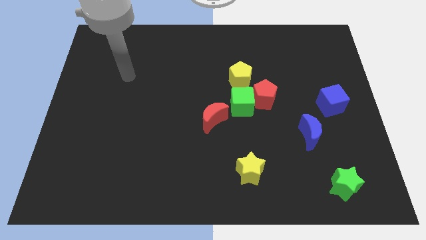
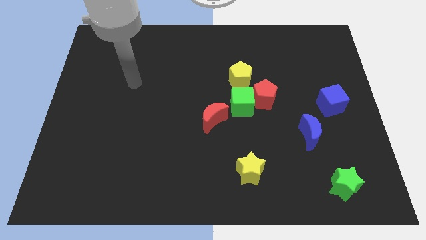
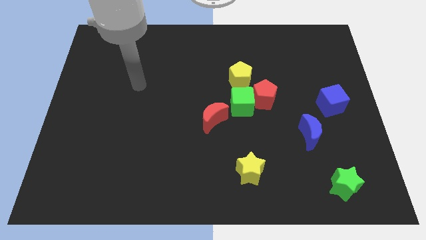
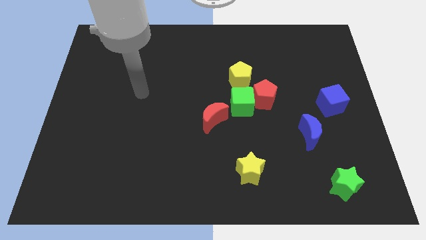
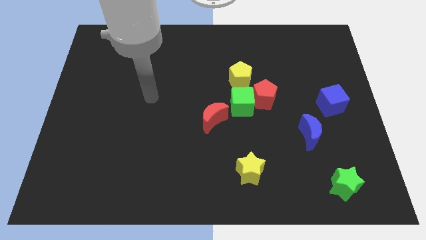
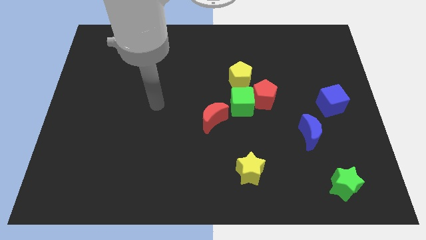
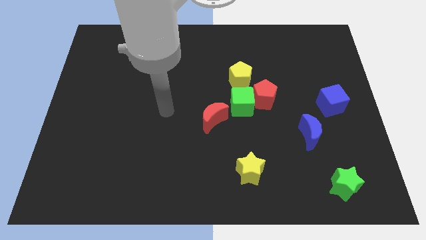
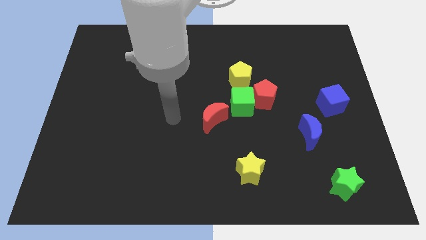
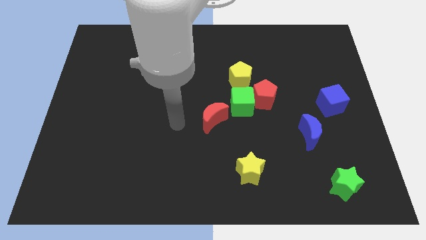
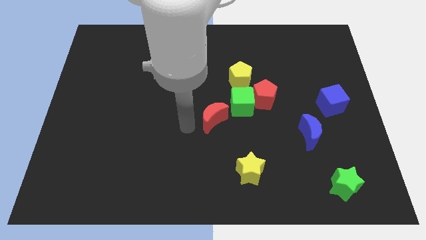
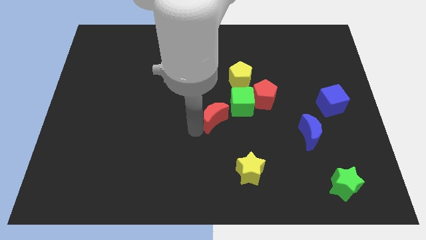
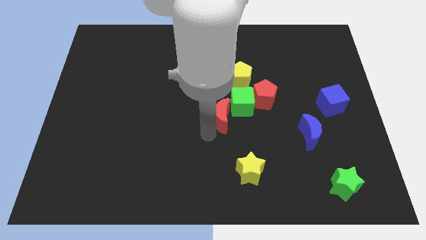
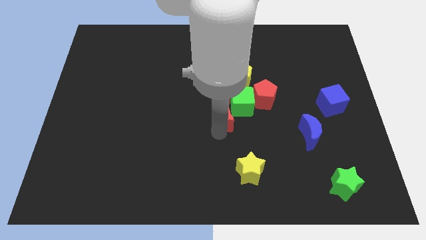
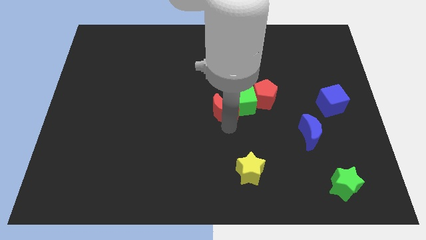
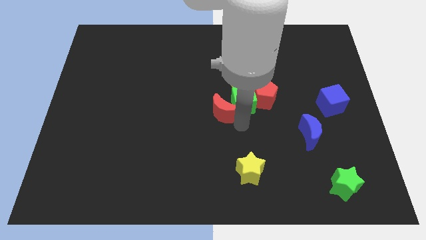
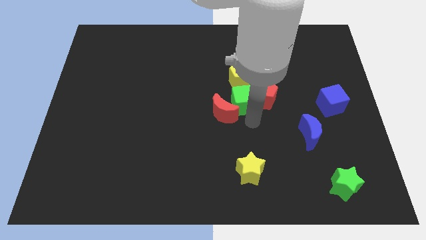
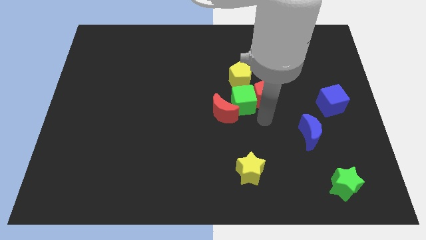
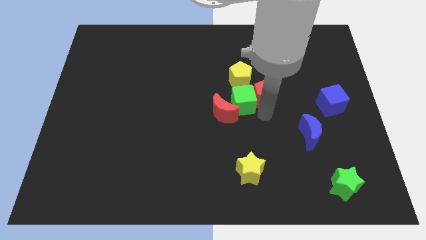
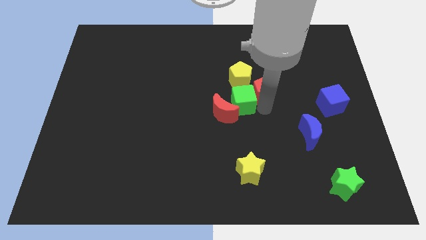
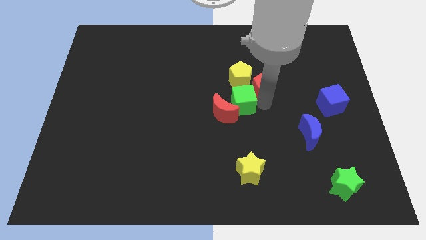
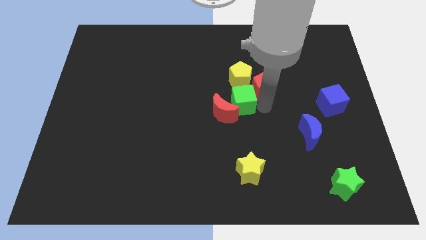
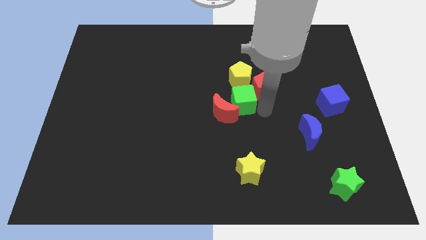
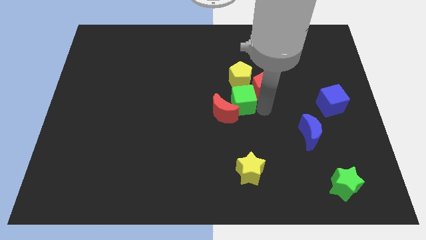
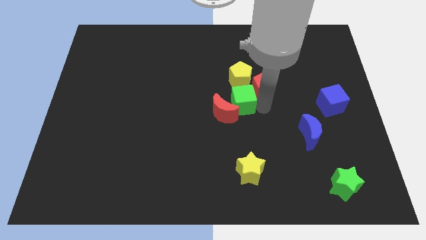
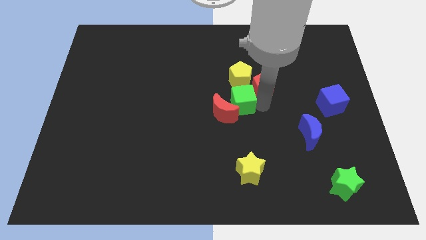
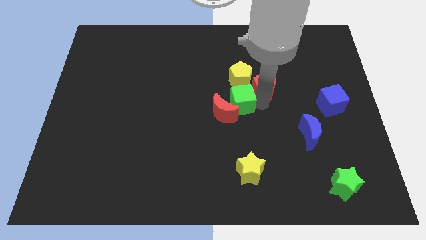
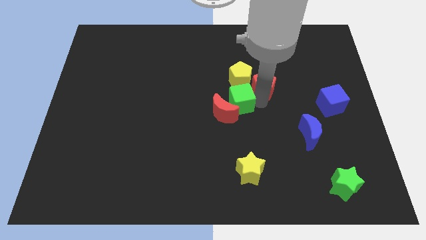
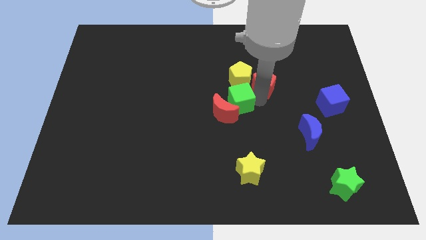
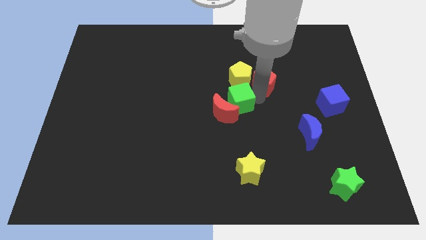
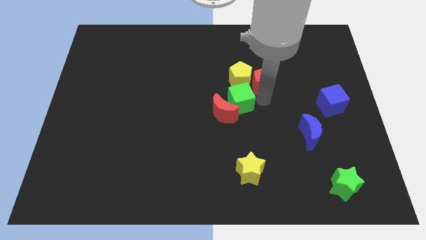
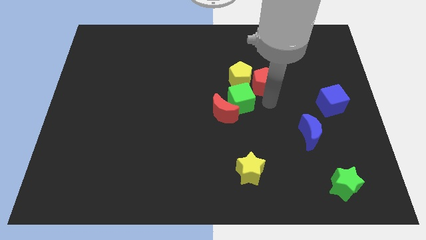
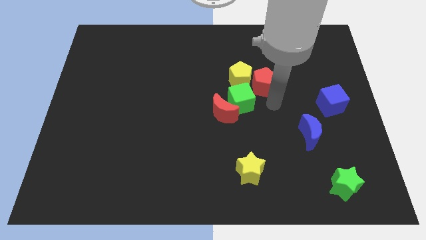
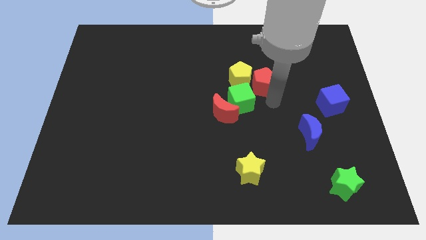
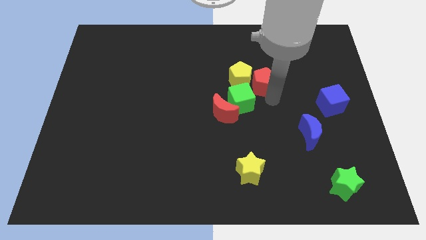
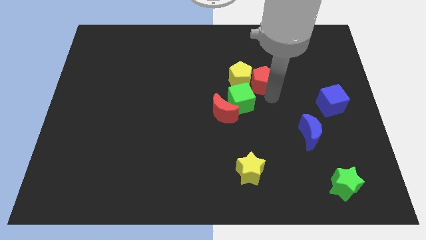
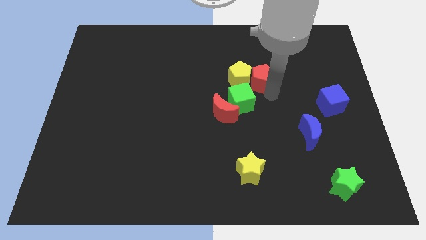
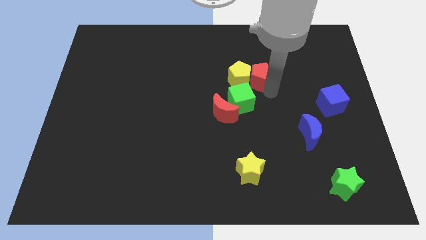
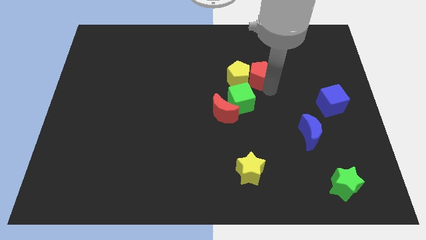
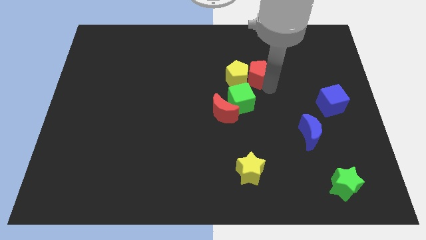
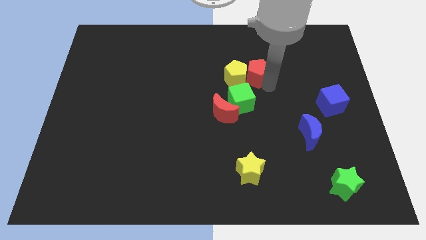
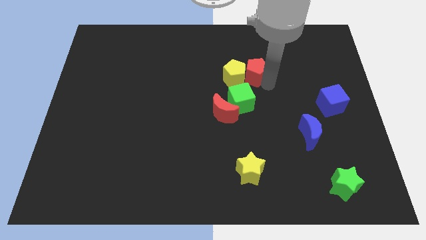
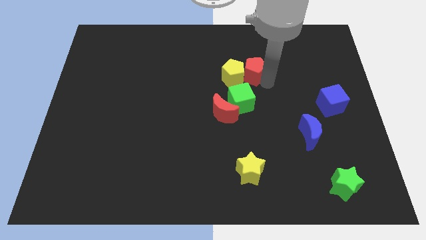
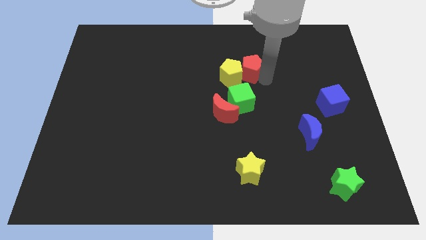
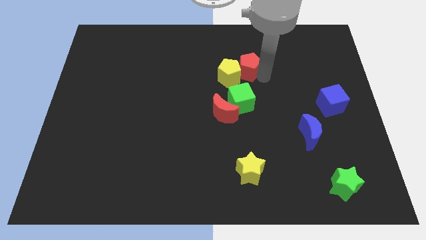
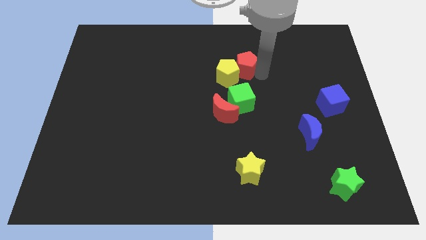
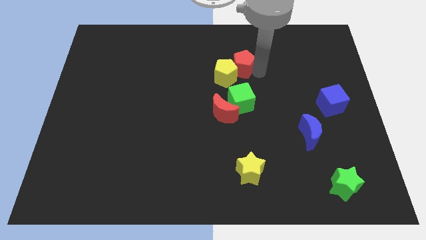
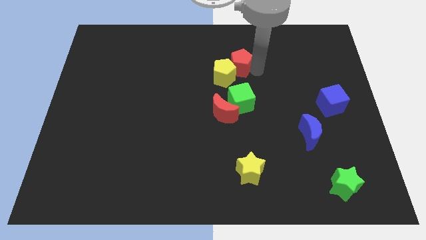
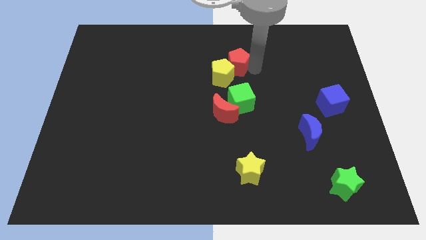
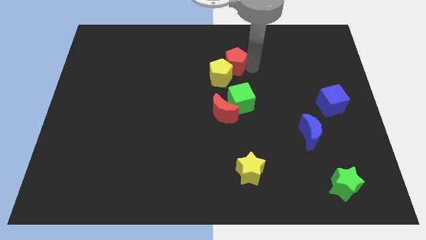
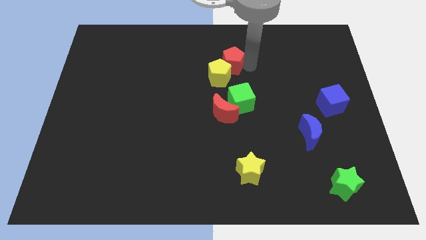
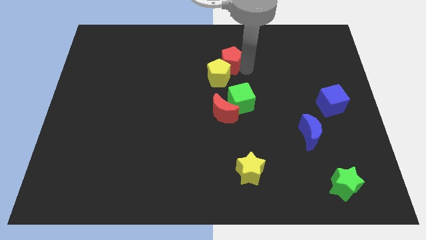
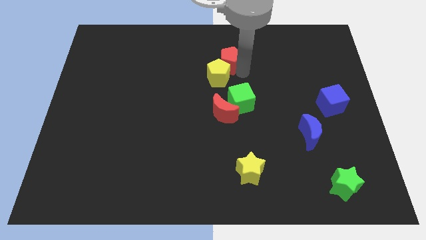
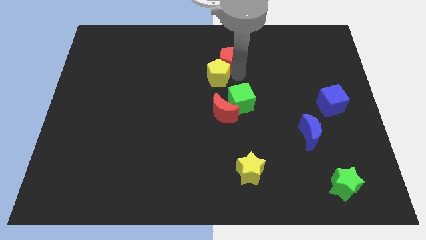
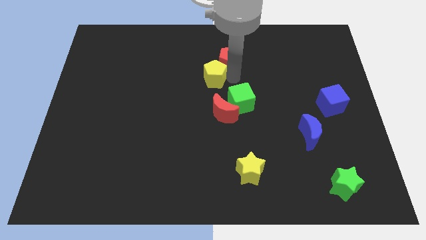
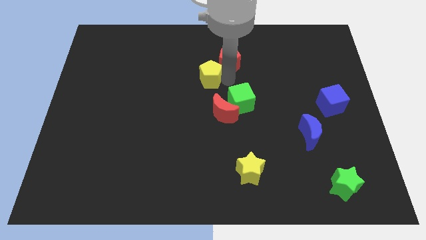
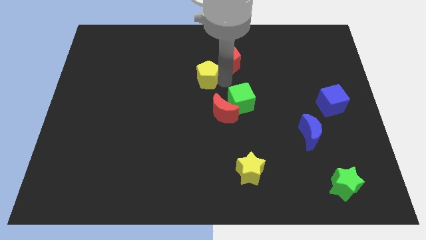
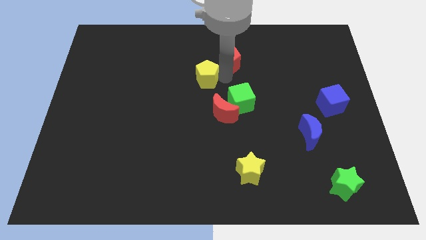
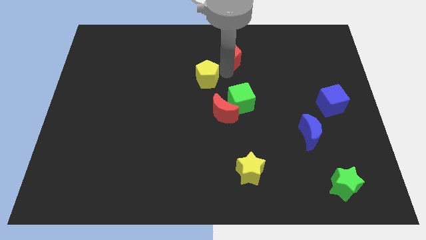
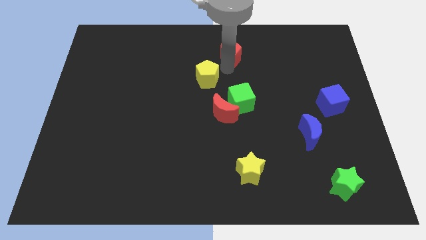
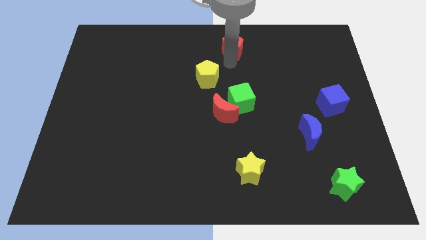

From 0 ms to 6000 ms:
put the red pentagon to the towards your base

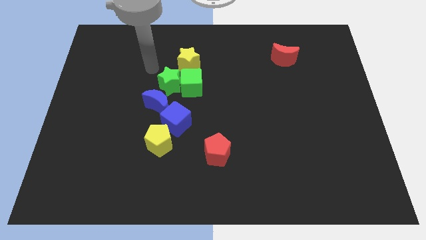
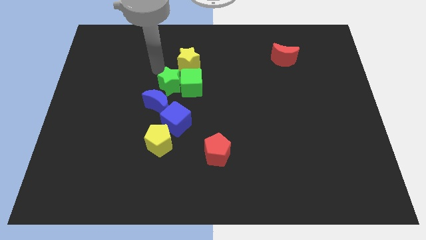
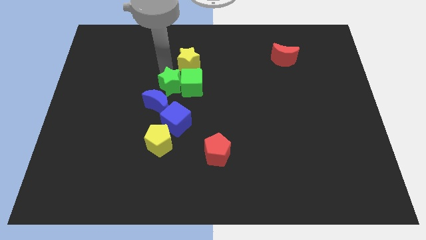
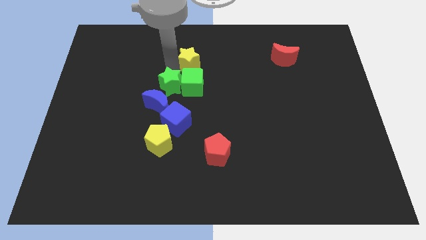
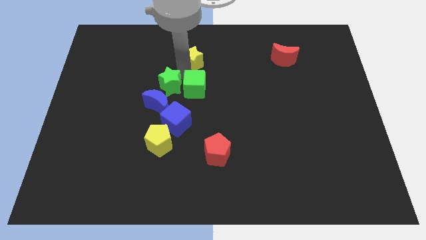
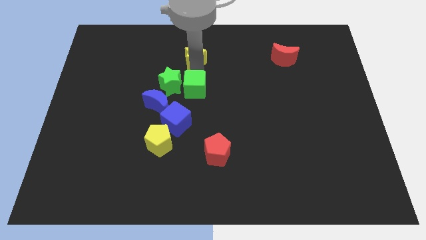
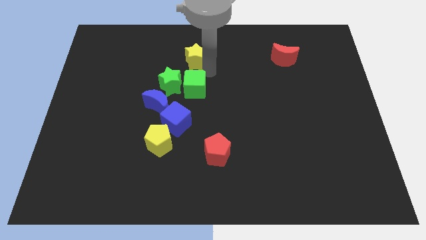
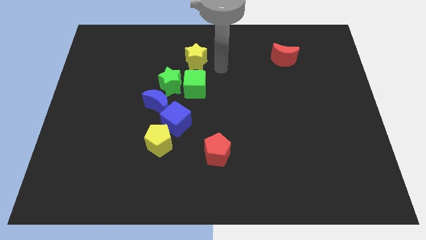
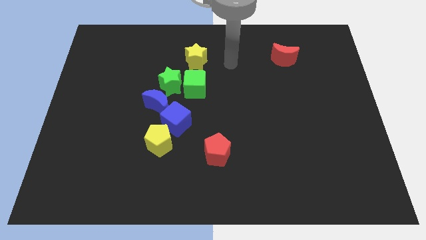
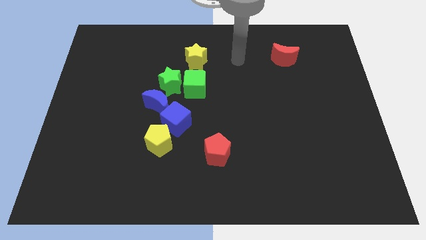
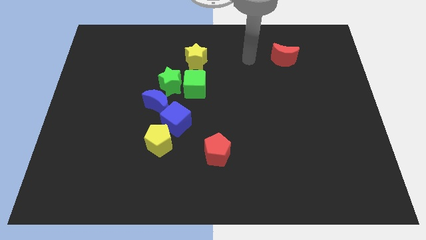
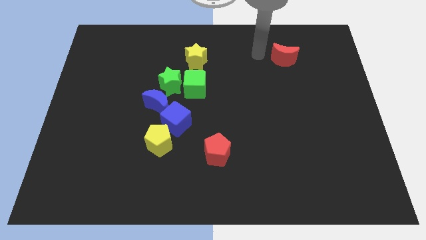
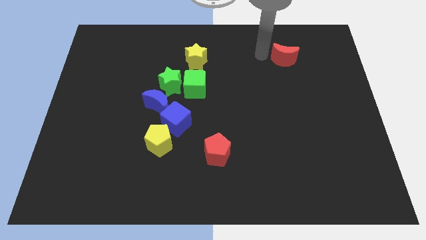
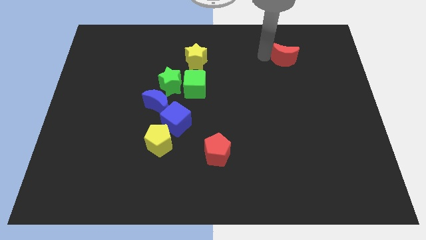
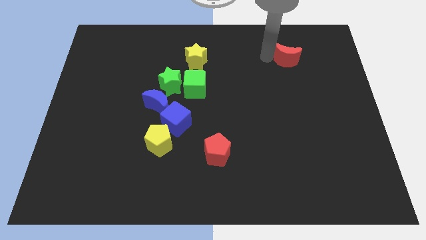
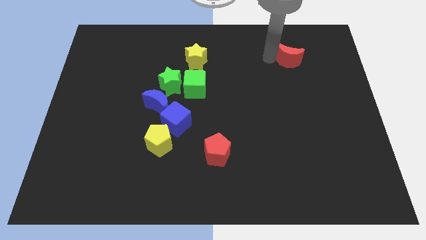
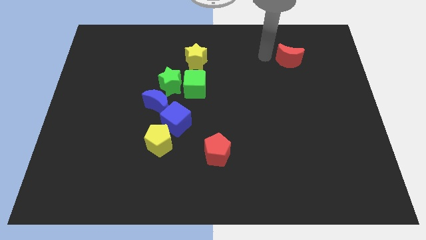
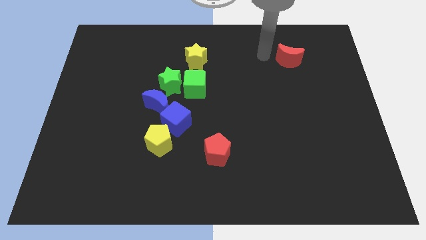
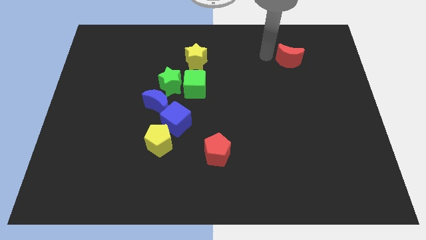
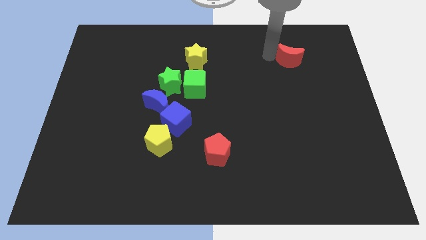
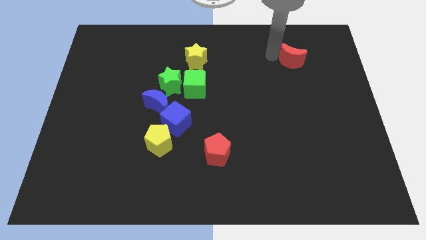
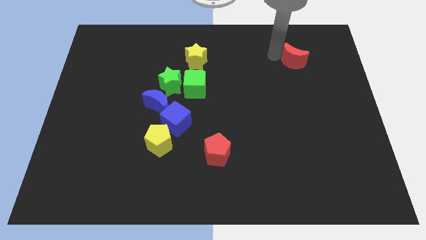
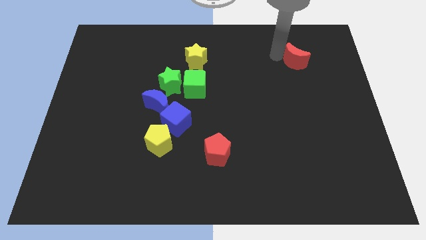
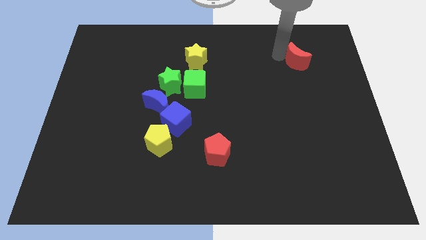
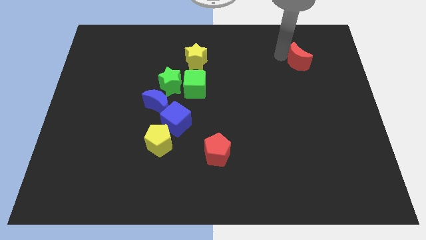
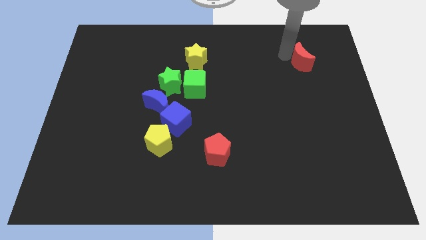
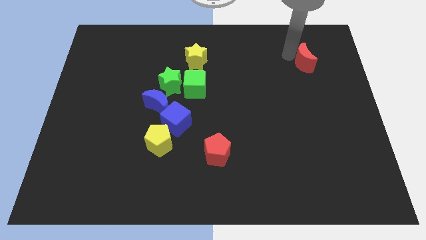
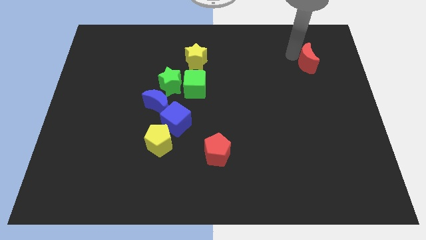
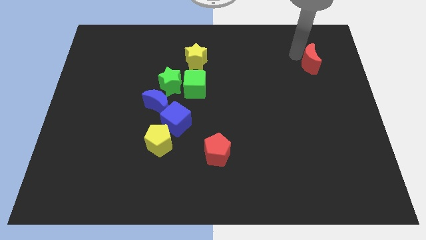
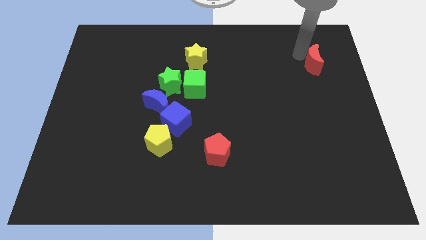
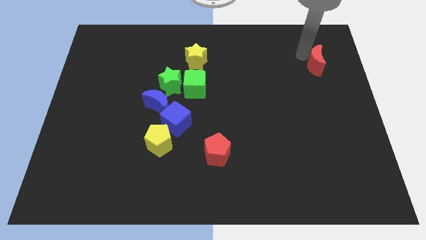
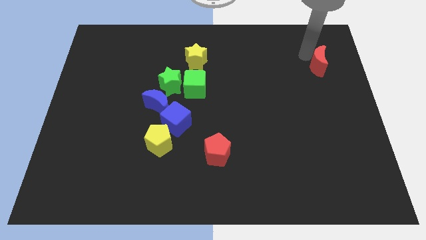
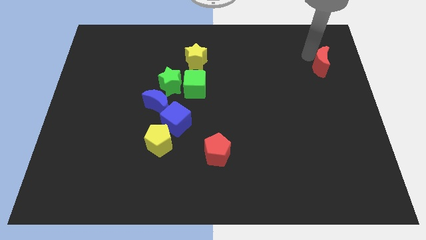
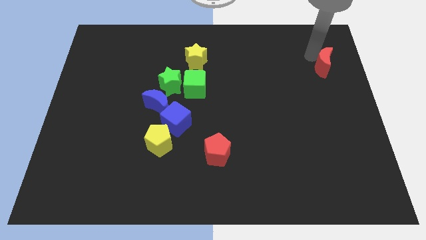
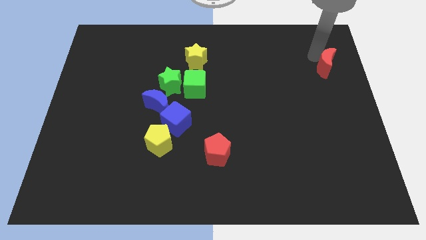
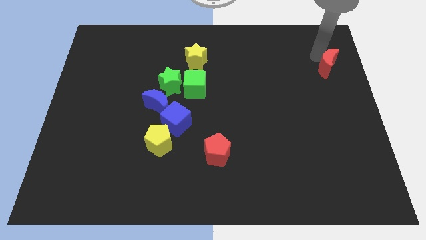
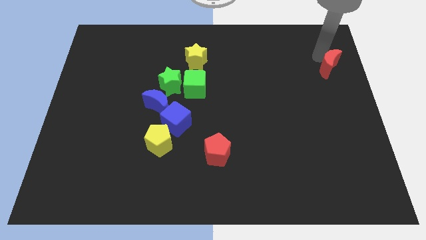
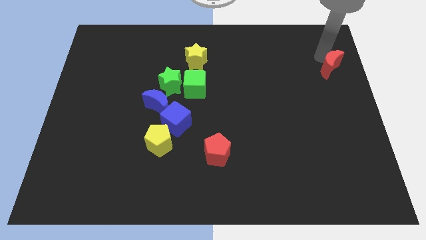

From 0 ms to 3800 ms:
move the red moon to the right side
